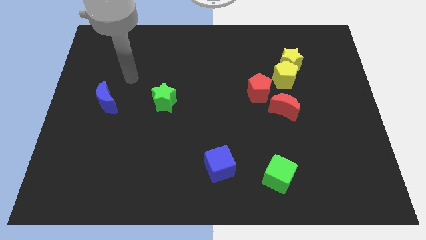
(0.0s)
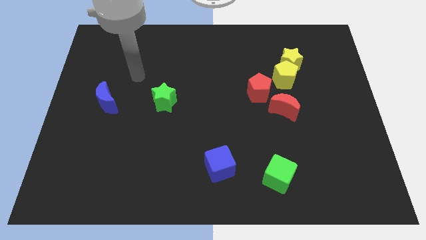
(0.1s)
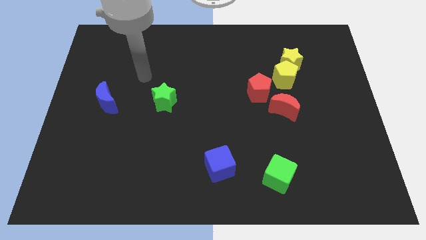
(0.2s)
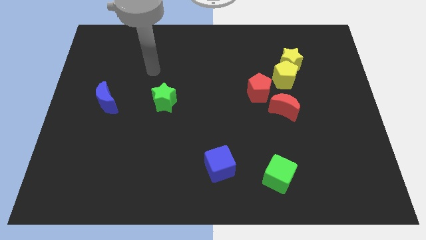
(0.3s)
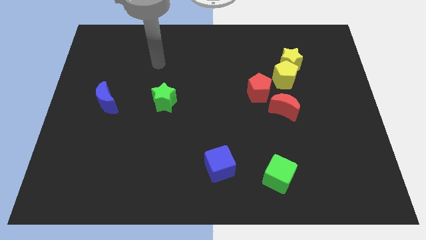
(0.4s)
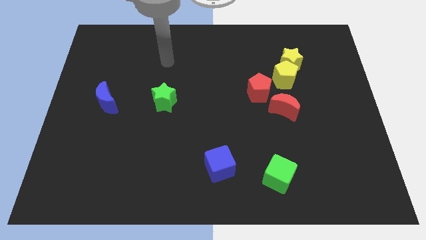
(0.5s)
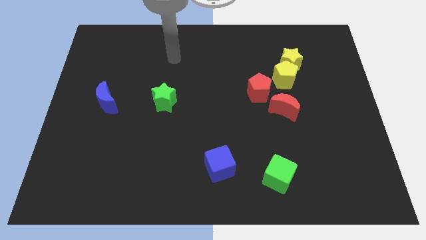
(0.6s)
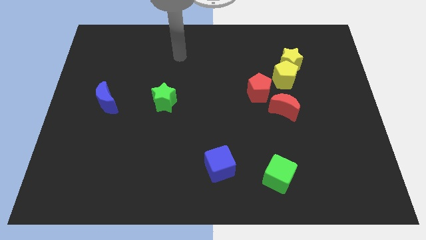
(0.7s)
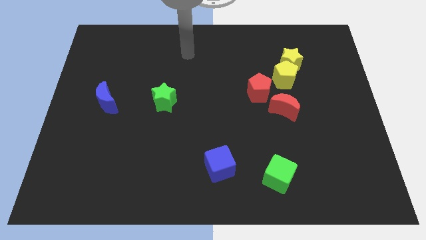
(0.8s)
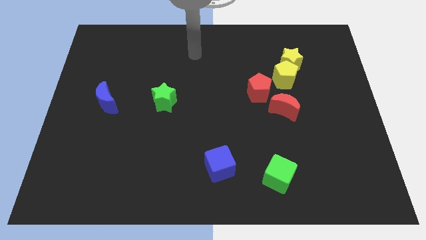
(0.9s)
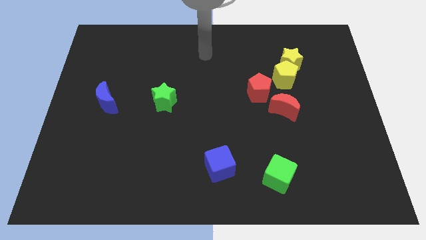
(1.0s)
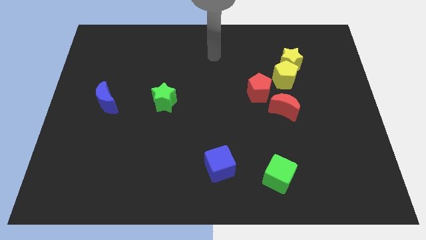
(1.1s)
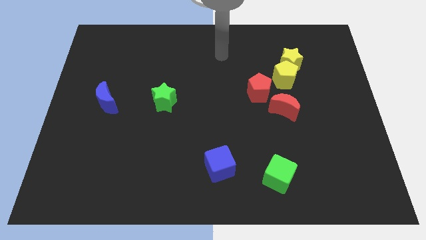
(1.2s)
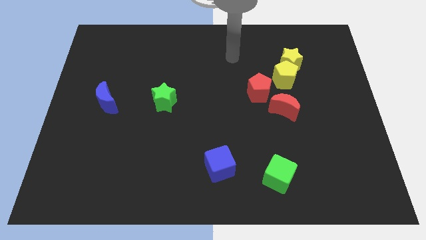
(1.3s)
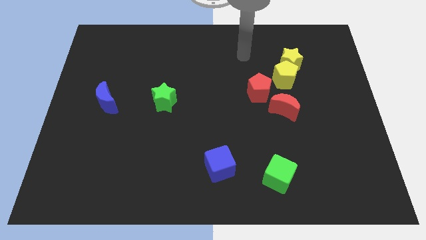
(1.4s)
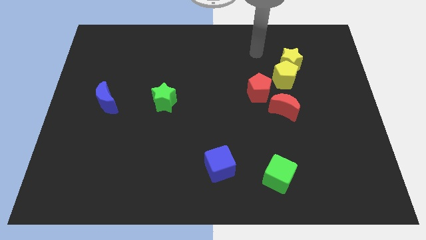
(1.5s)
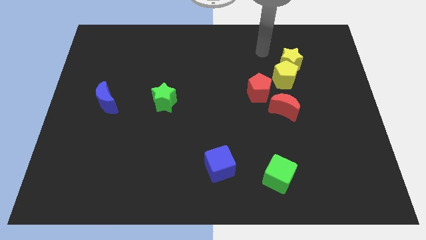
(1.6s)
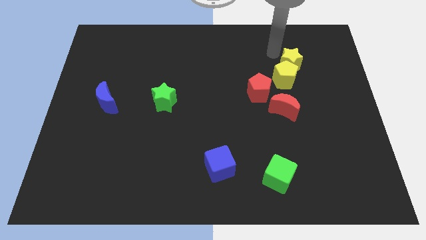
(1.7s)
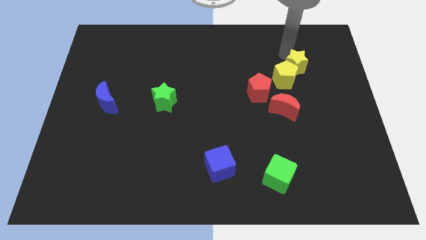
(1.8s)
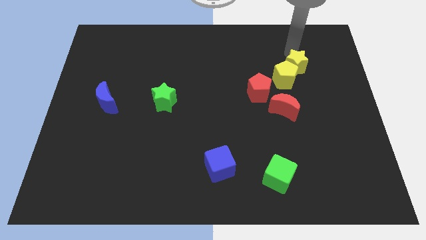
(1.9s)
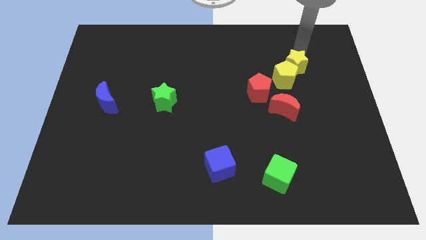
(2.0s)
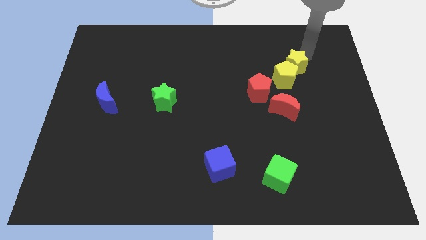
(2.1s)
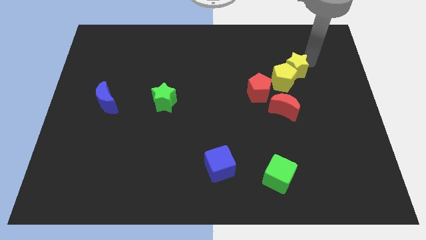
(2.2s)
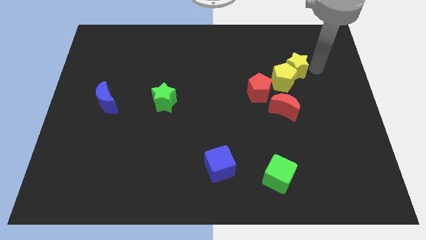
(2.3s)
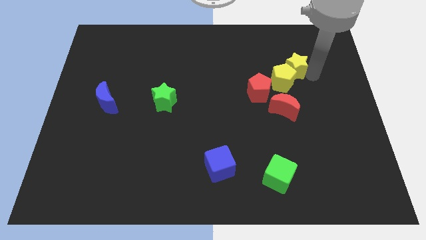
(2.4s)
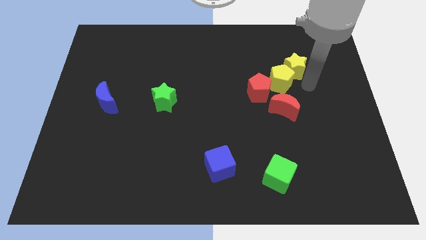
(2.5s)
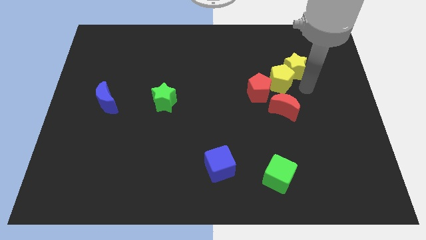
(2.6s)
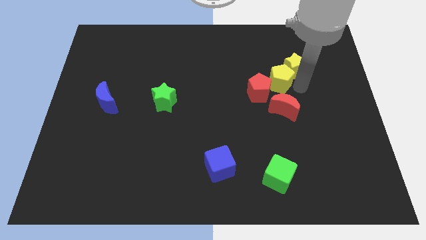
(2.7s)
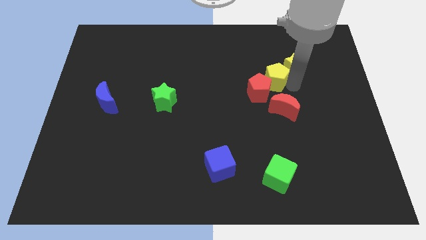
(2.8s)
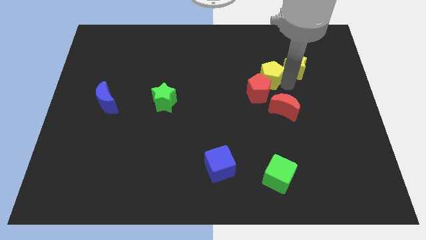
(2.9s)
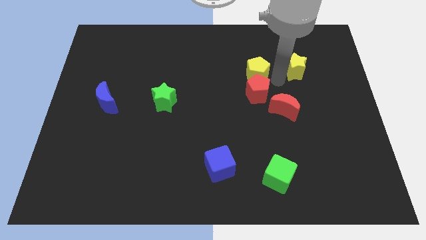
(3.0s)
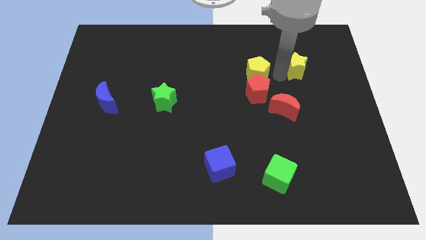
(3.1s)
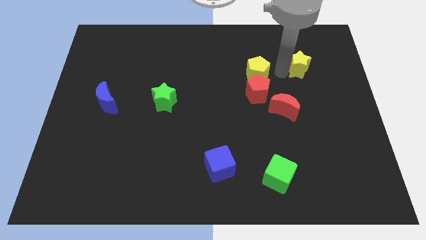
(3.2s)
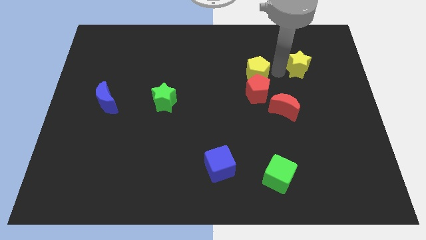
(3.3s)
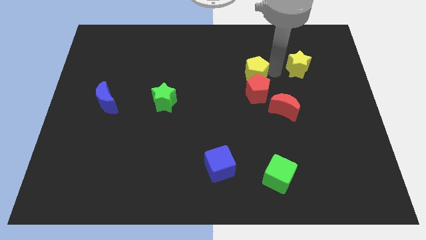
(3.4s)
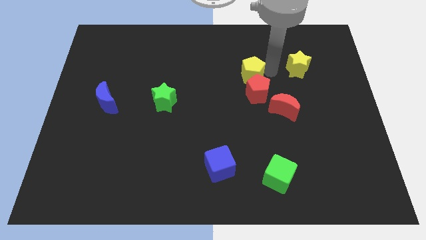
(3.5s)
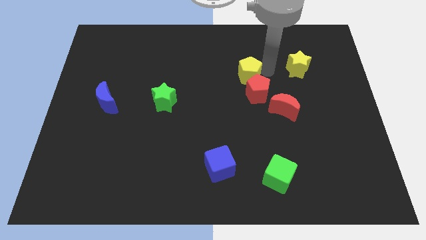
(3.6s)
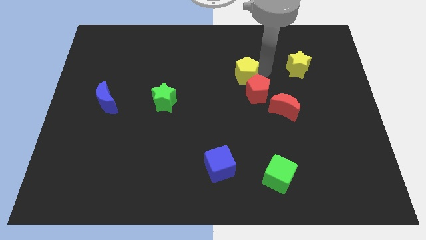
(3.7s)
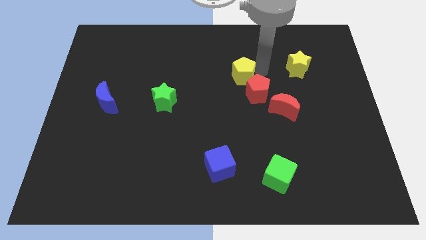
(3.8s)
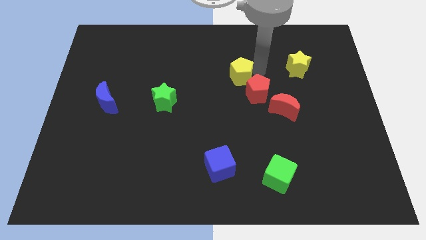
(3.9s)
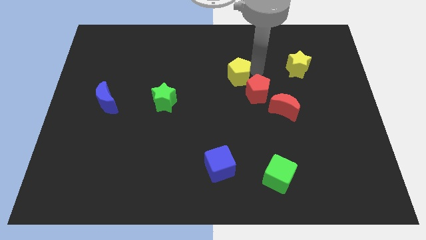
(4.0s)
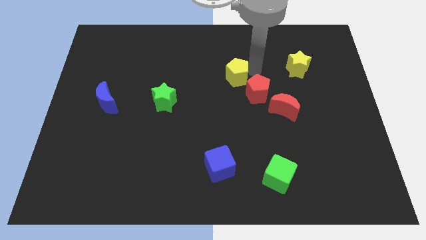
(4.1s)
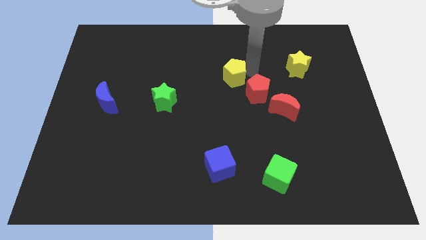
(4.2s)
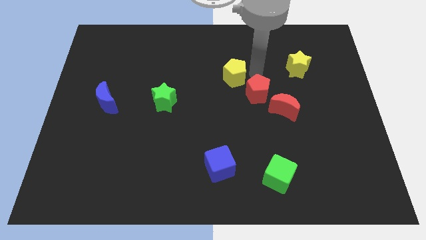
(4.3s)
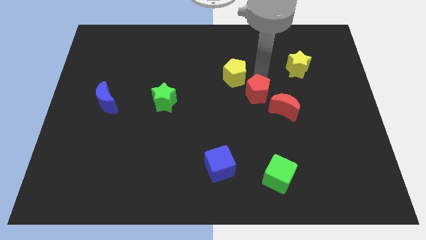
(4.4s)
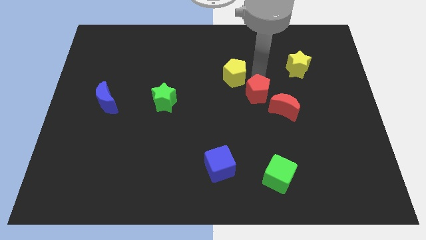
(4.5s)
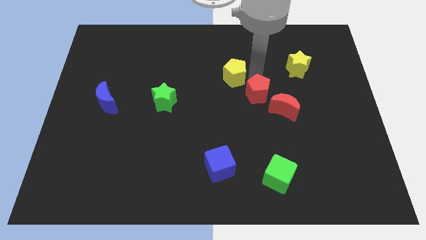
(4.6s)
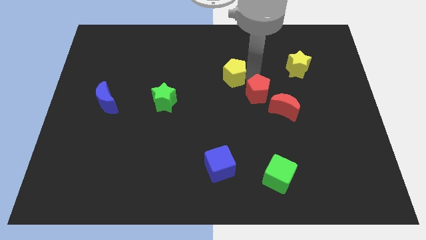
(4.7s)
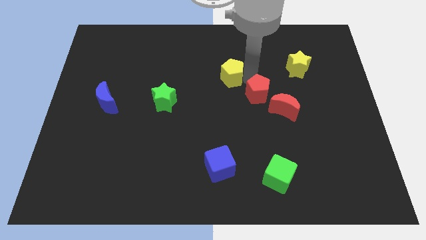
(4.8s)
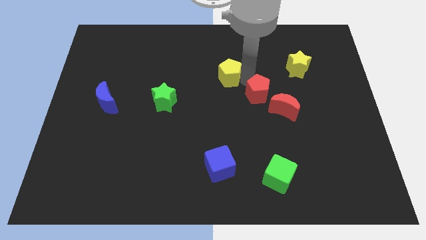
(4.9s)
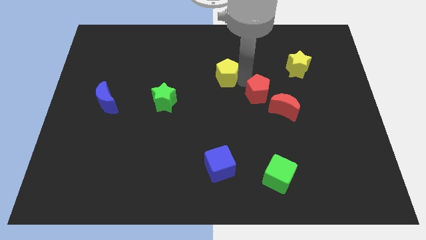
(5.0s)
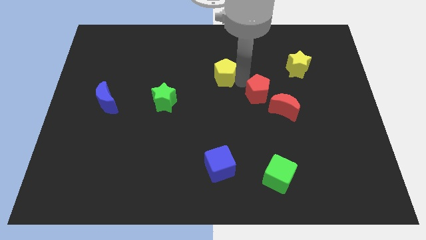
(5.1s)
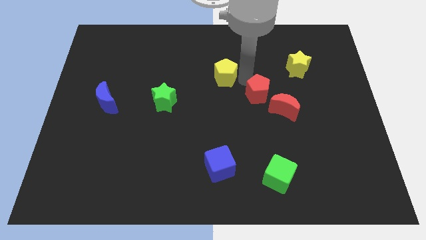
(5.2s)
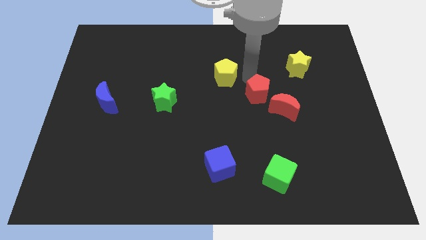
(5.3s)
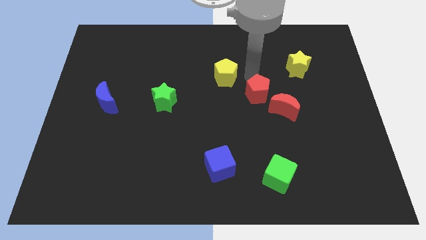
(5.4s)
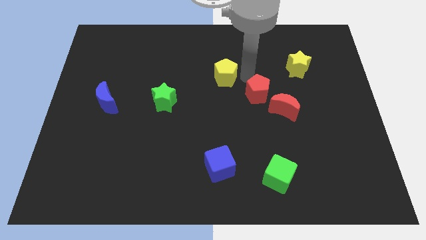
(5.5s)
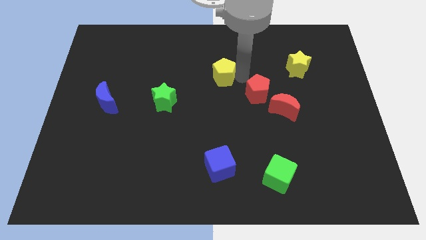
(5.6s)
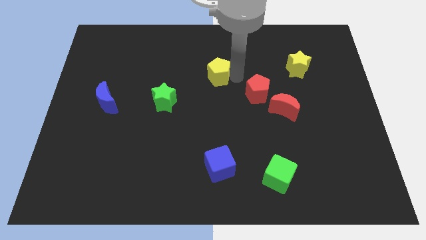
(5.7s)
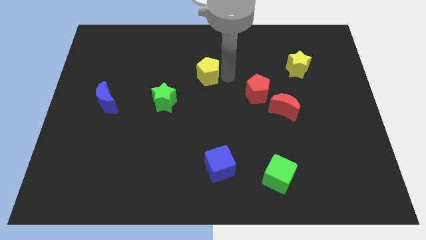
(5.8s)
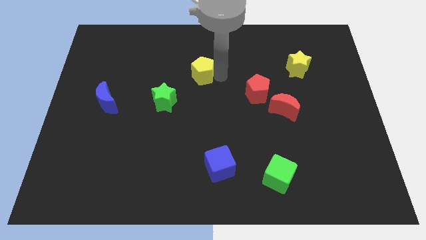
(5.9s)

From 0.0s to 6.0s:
push the yellow pentagon left

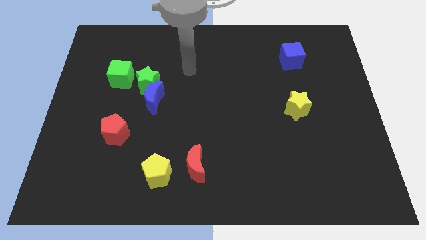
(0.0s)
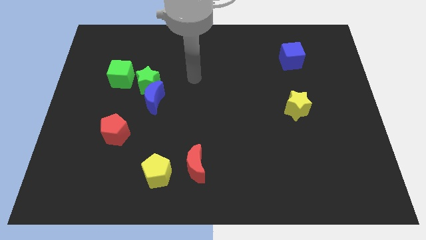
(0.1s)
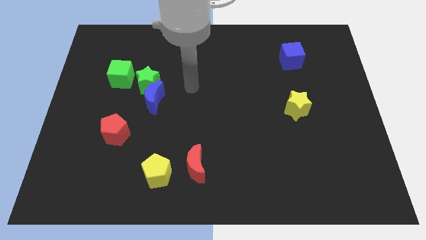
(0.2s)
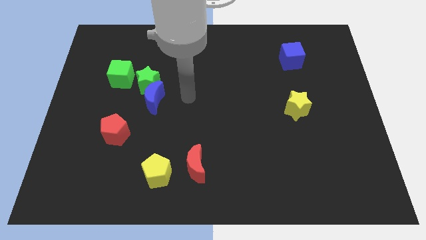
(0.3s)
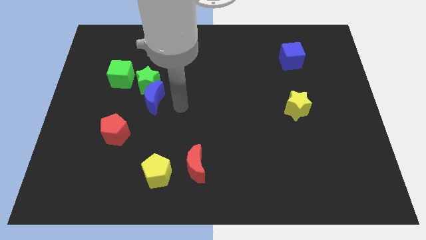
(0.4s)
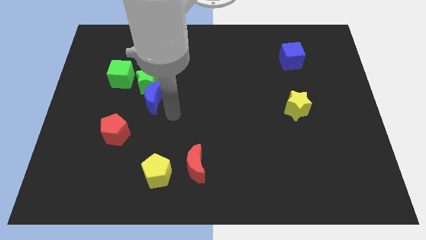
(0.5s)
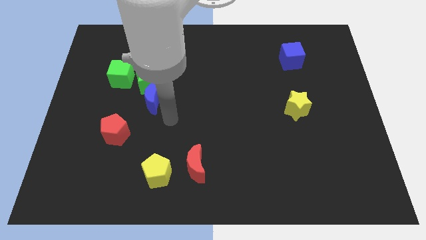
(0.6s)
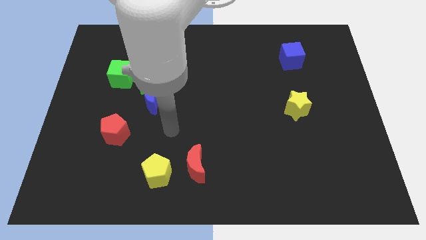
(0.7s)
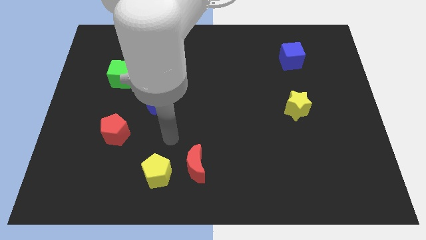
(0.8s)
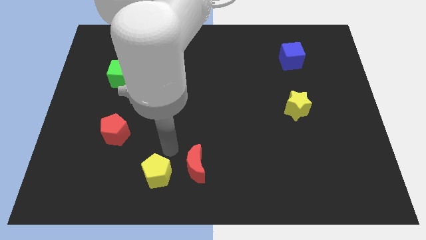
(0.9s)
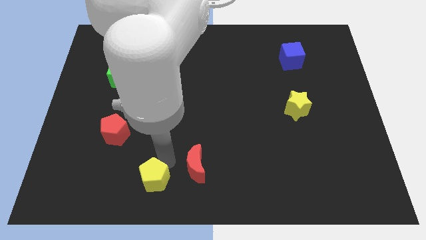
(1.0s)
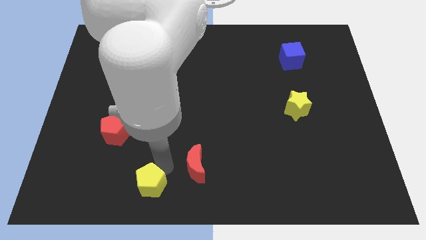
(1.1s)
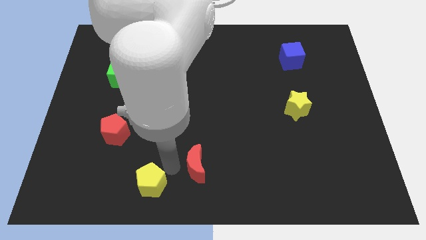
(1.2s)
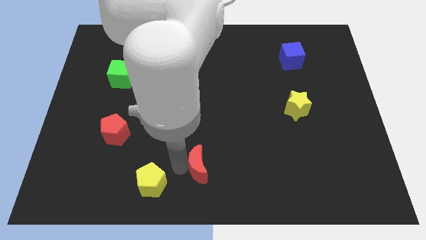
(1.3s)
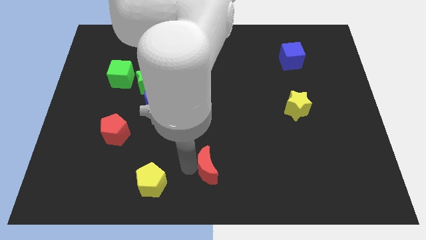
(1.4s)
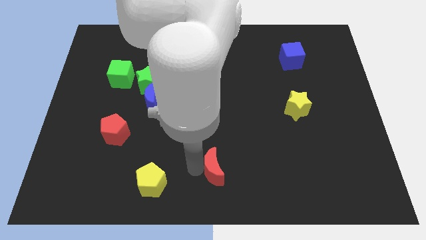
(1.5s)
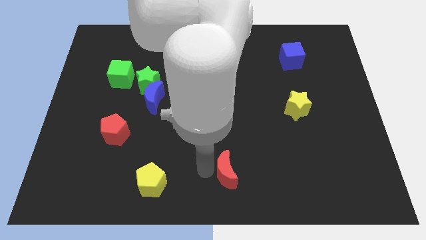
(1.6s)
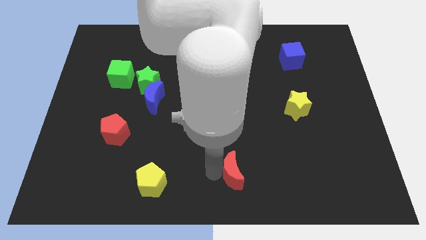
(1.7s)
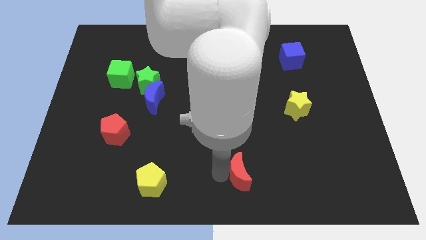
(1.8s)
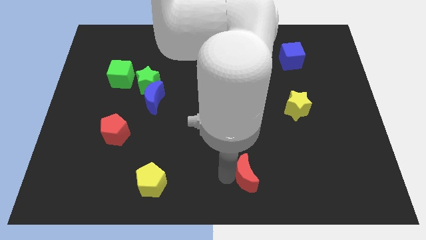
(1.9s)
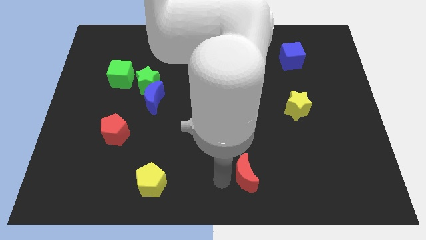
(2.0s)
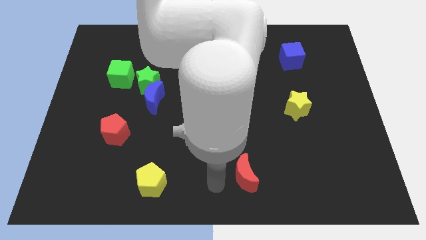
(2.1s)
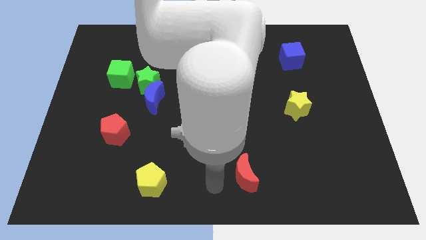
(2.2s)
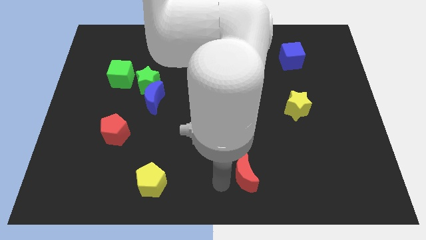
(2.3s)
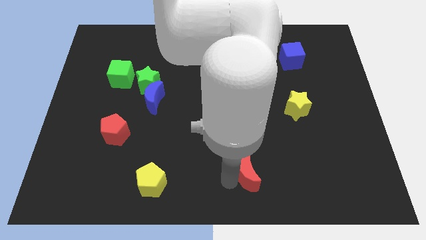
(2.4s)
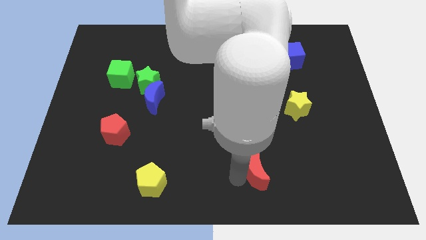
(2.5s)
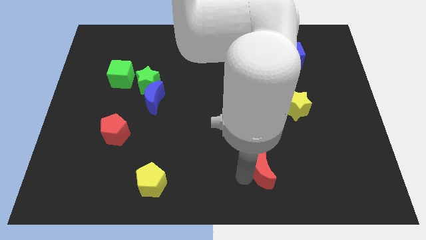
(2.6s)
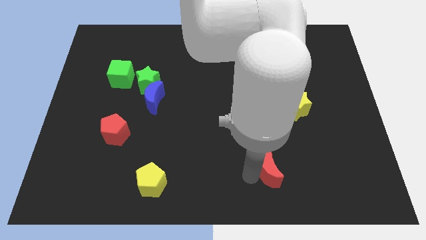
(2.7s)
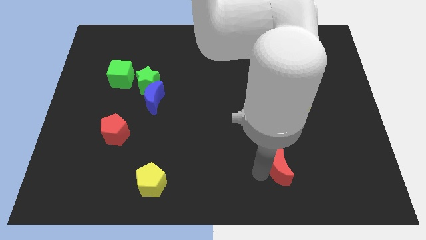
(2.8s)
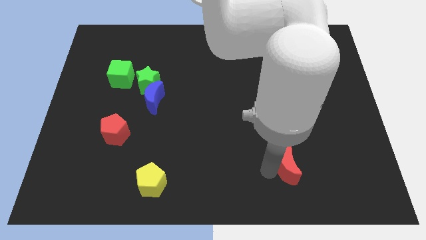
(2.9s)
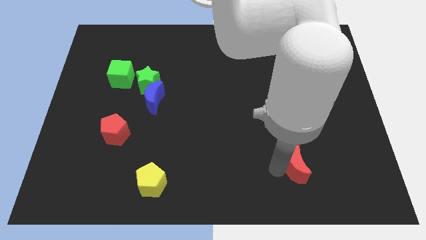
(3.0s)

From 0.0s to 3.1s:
slide the red moon right
